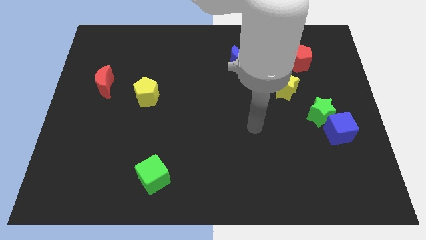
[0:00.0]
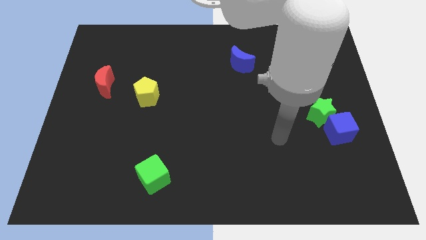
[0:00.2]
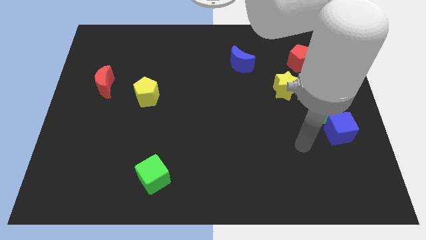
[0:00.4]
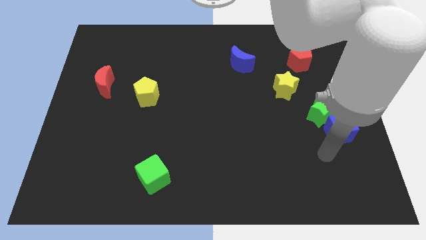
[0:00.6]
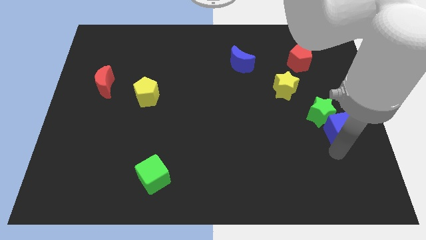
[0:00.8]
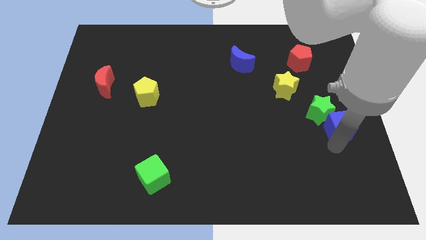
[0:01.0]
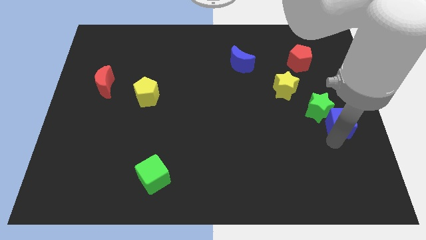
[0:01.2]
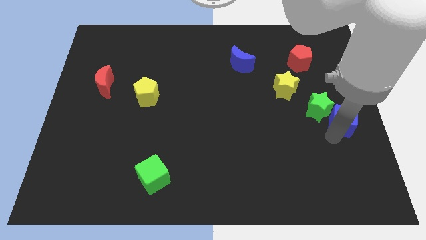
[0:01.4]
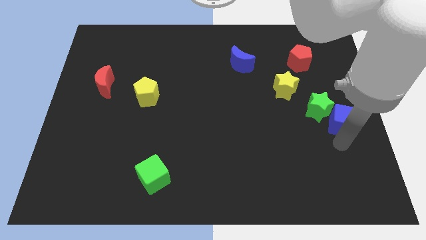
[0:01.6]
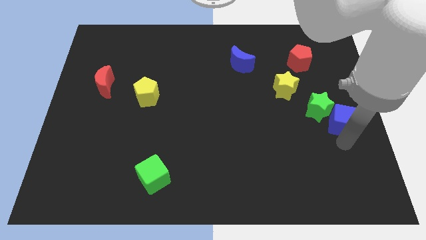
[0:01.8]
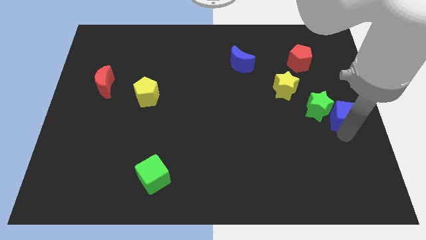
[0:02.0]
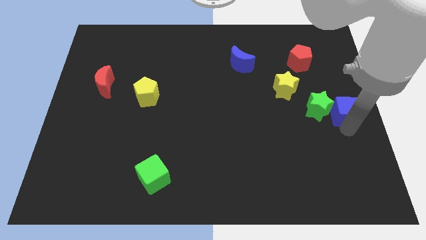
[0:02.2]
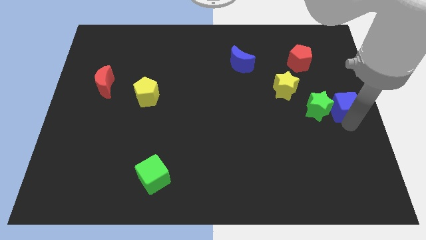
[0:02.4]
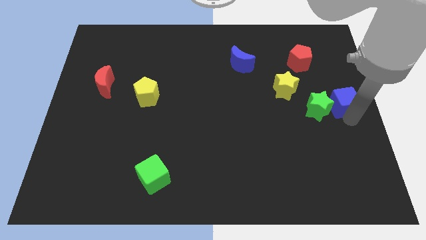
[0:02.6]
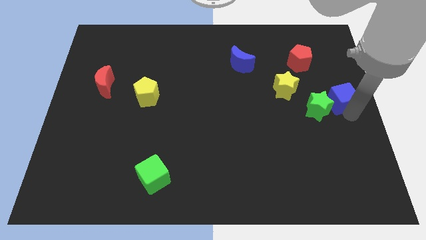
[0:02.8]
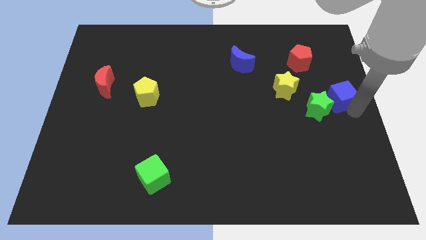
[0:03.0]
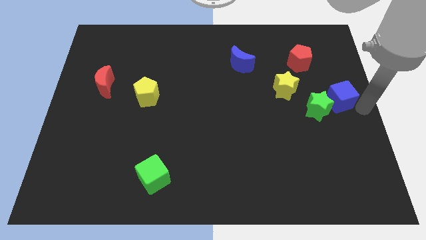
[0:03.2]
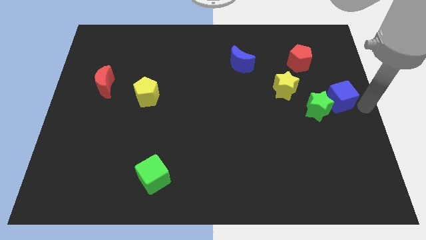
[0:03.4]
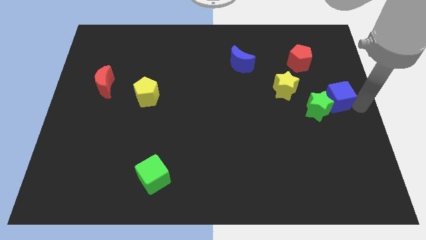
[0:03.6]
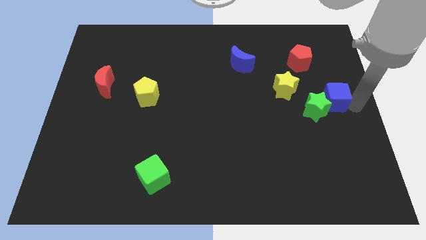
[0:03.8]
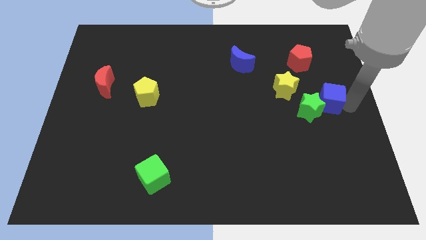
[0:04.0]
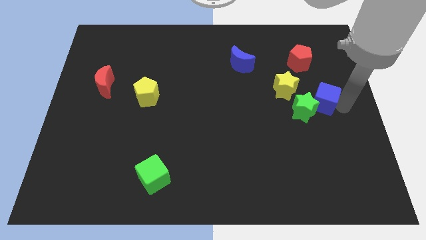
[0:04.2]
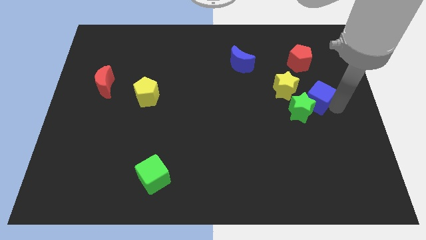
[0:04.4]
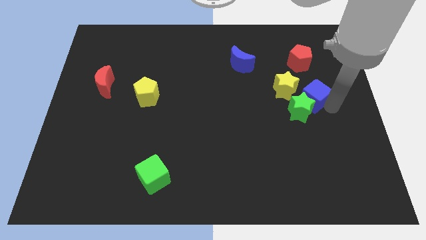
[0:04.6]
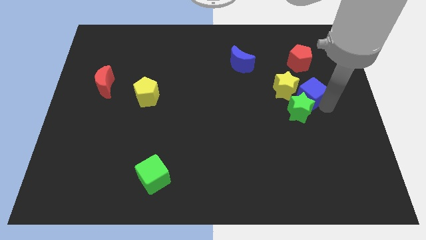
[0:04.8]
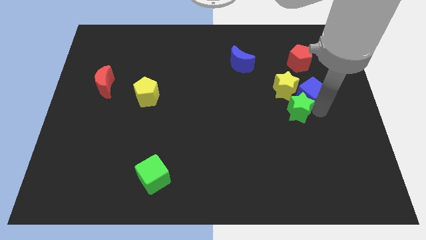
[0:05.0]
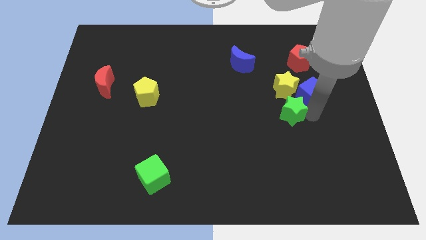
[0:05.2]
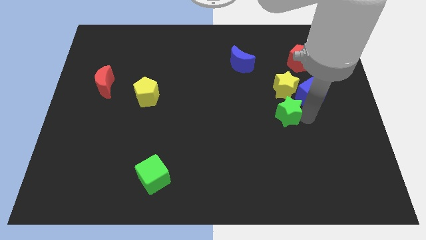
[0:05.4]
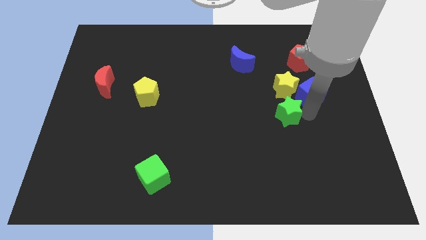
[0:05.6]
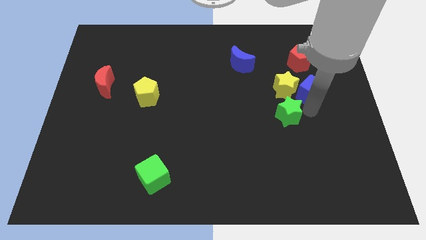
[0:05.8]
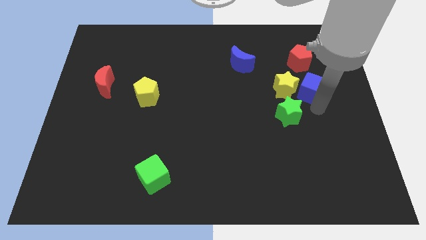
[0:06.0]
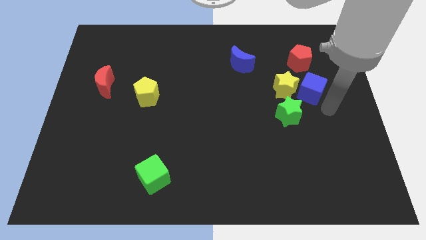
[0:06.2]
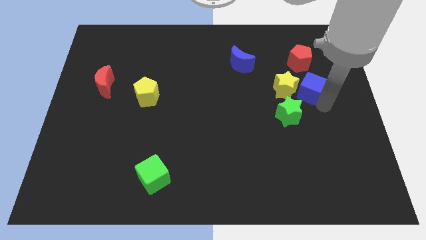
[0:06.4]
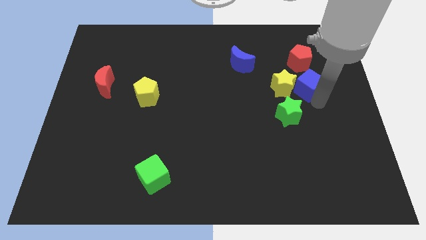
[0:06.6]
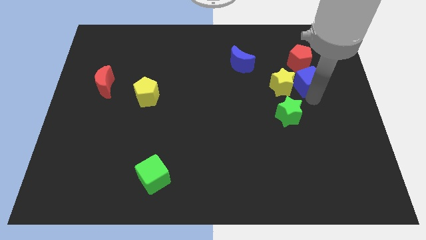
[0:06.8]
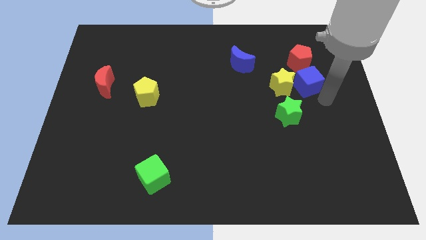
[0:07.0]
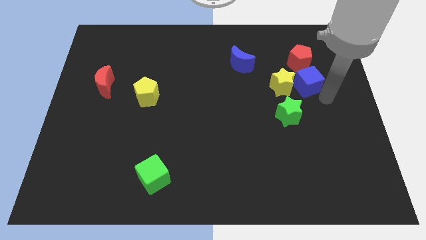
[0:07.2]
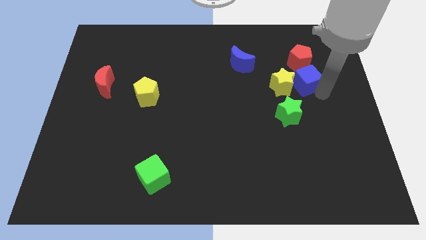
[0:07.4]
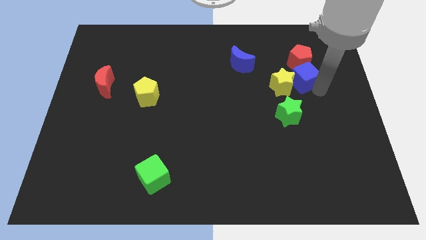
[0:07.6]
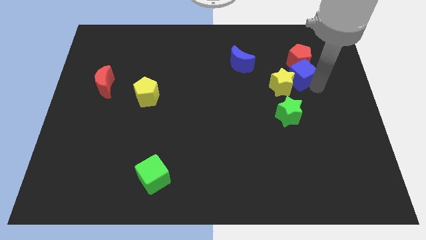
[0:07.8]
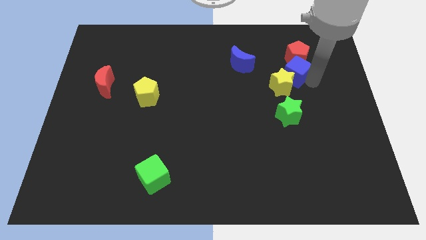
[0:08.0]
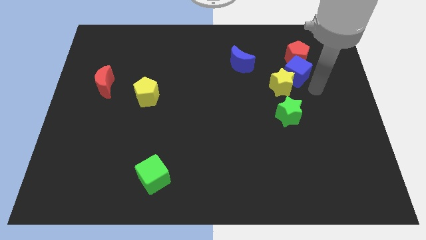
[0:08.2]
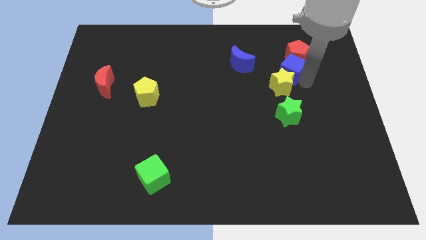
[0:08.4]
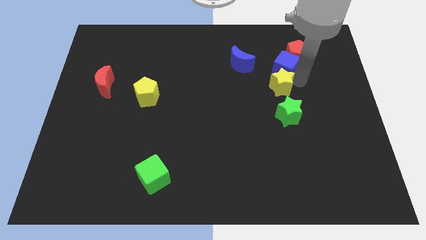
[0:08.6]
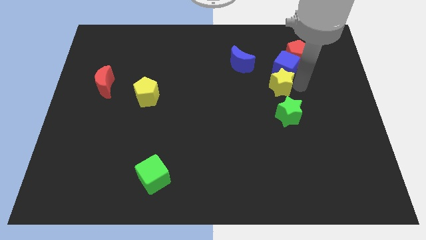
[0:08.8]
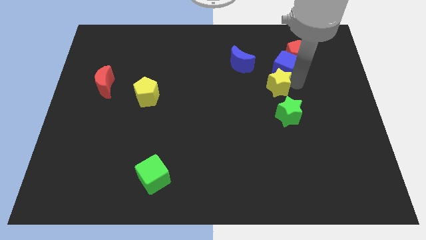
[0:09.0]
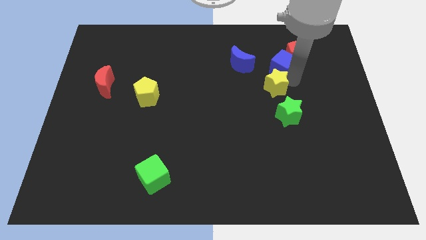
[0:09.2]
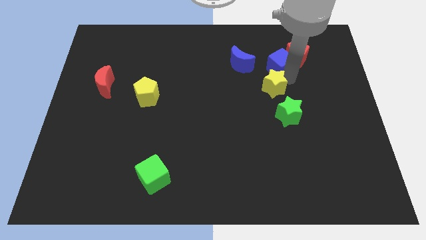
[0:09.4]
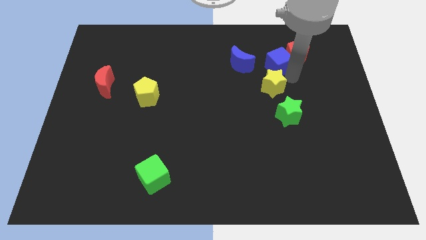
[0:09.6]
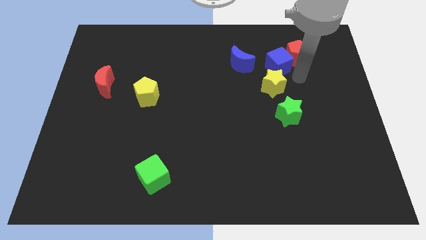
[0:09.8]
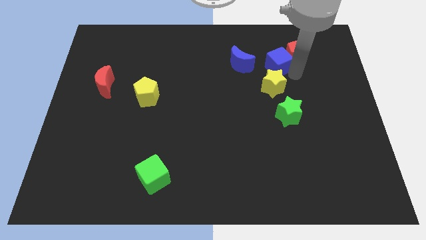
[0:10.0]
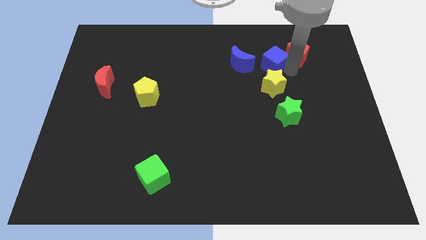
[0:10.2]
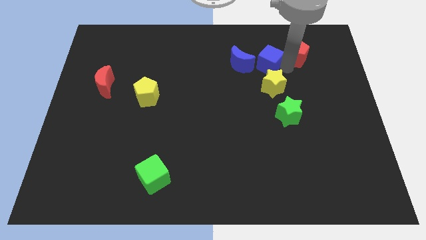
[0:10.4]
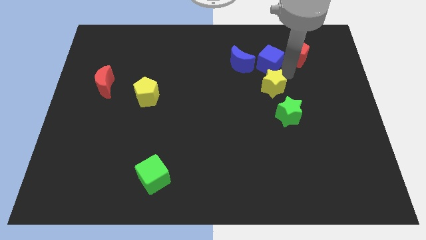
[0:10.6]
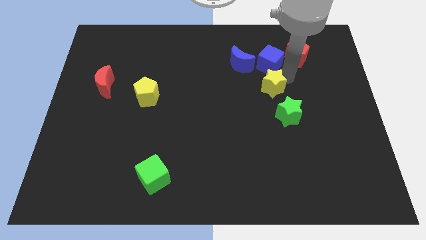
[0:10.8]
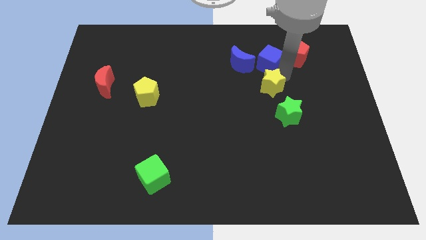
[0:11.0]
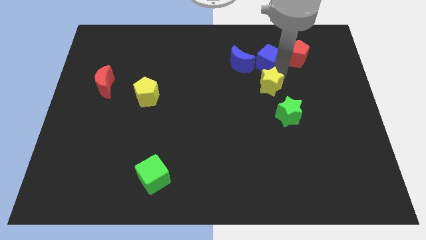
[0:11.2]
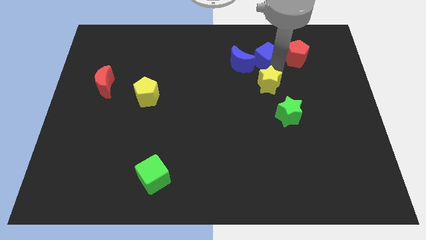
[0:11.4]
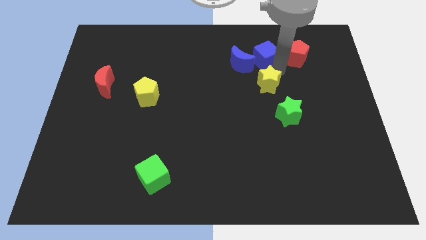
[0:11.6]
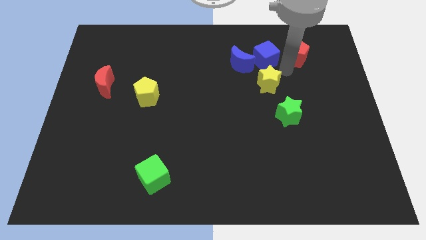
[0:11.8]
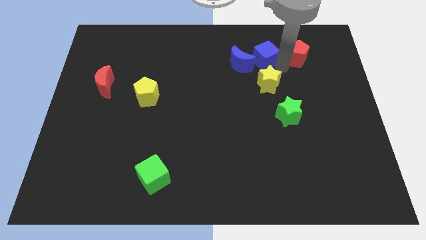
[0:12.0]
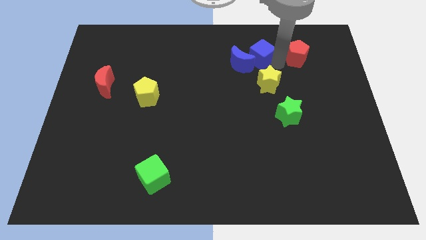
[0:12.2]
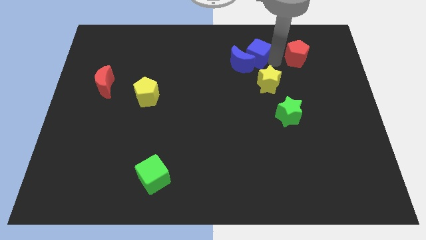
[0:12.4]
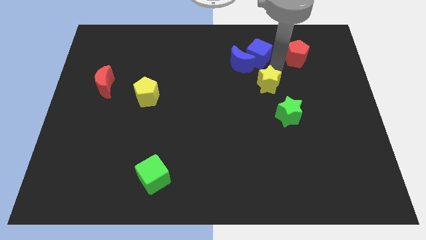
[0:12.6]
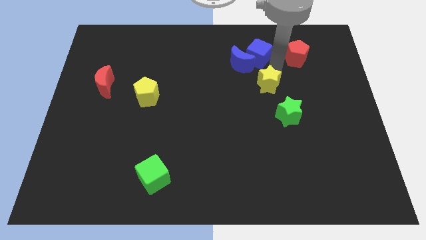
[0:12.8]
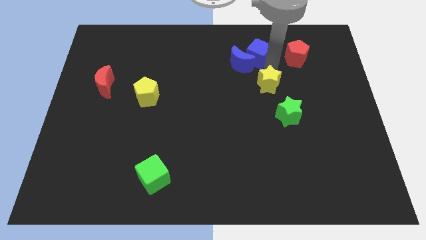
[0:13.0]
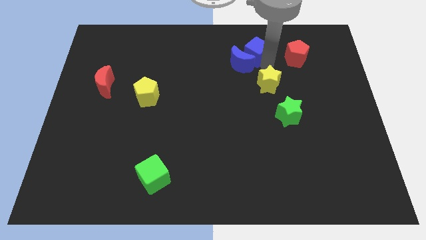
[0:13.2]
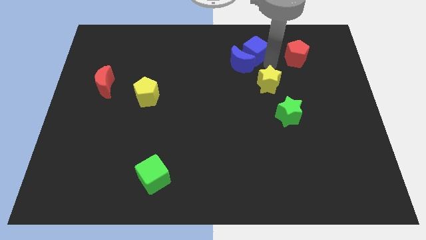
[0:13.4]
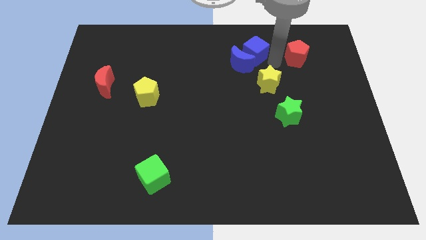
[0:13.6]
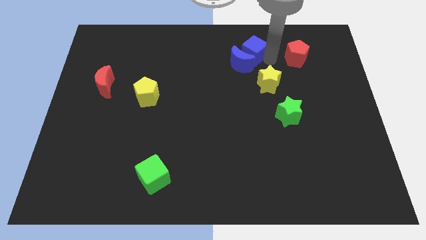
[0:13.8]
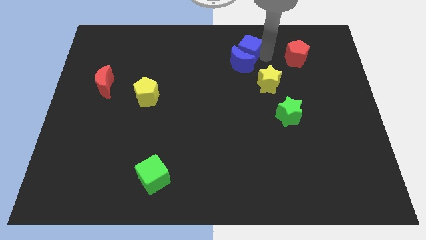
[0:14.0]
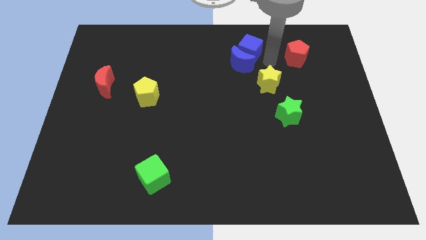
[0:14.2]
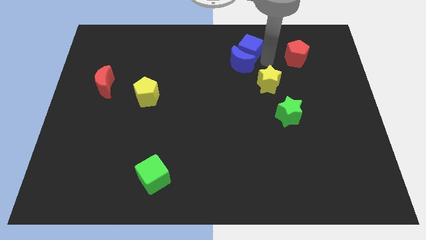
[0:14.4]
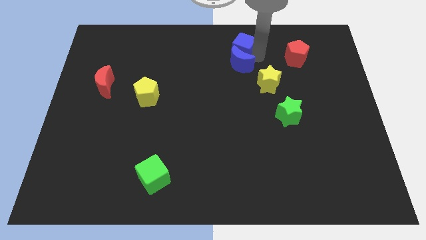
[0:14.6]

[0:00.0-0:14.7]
slide the blue cube to the top
